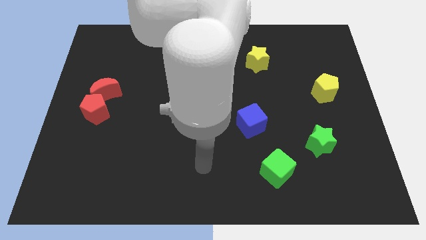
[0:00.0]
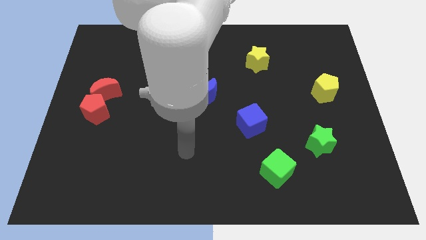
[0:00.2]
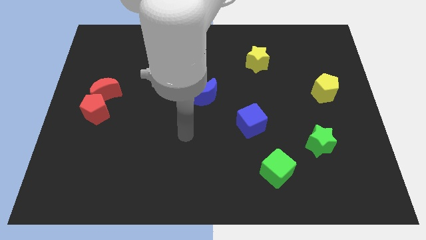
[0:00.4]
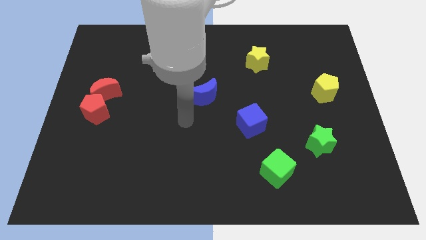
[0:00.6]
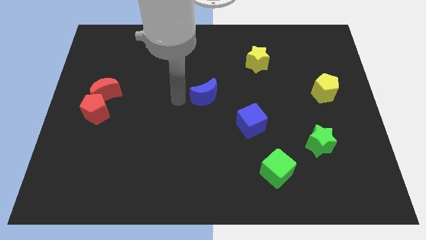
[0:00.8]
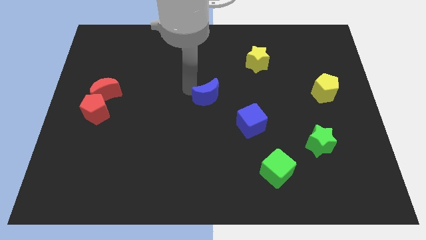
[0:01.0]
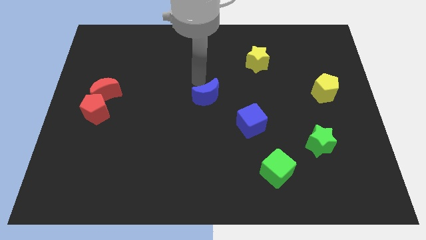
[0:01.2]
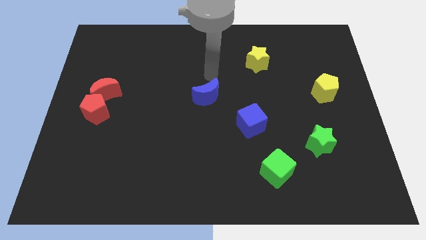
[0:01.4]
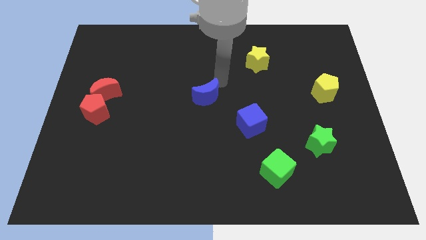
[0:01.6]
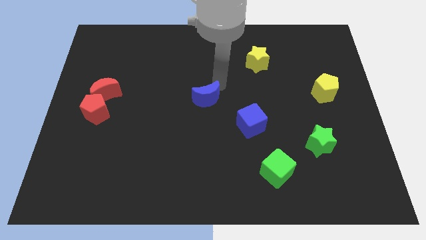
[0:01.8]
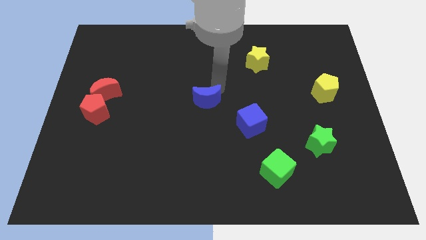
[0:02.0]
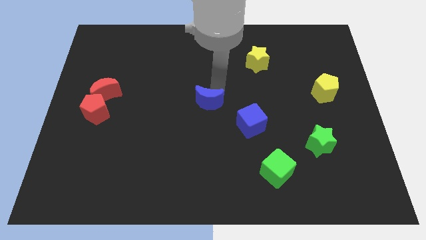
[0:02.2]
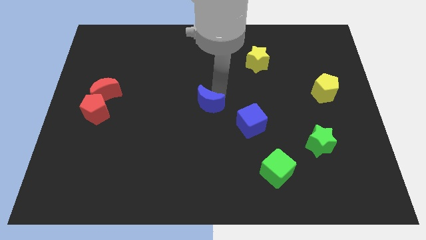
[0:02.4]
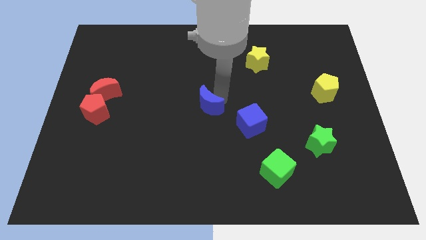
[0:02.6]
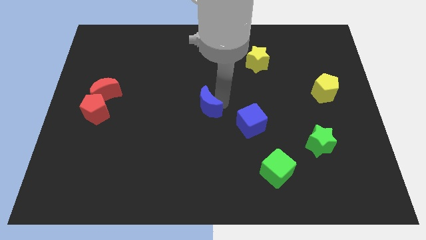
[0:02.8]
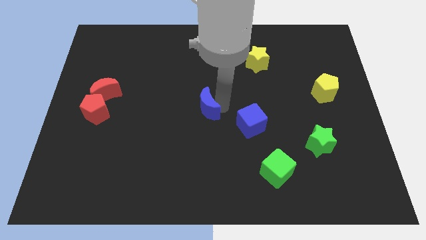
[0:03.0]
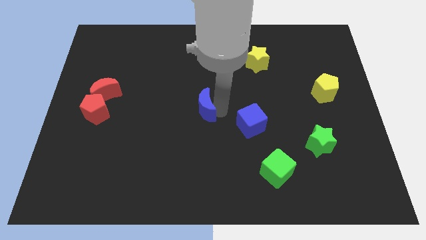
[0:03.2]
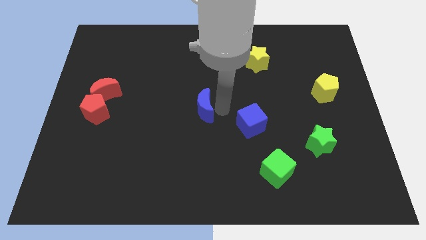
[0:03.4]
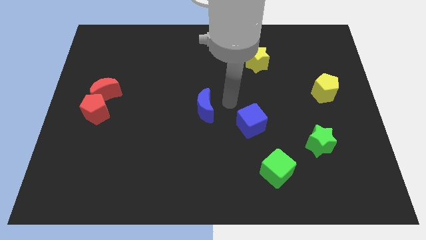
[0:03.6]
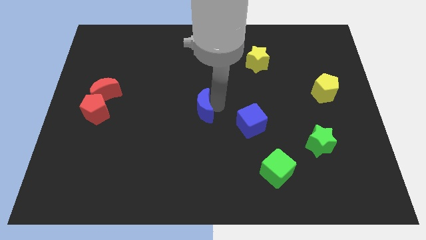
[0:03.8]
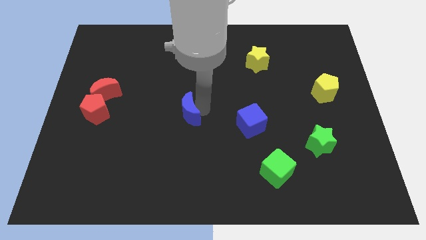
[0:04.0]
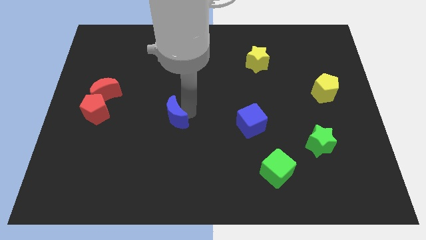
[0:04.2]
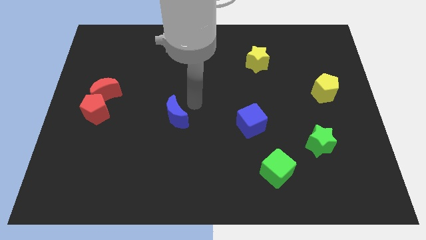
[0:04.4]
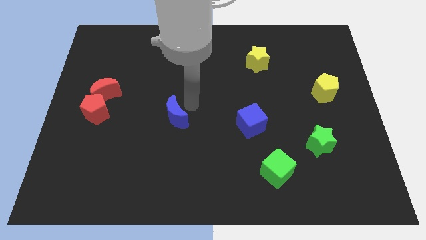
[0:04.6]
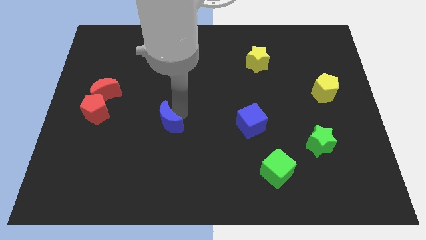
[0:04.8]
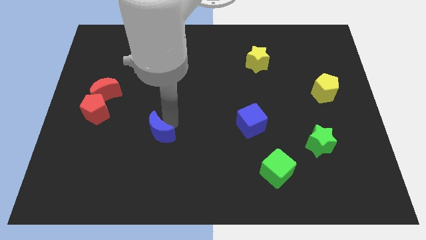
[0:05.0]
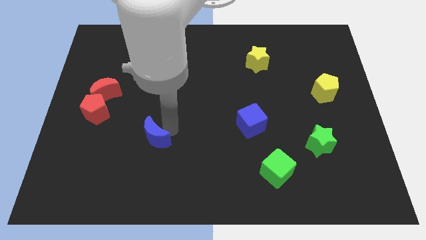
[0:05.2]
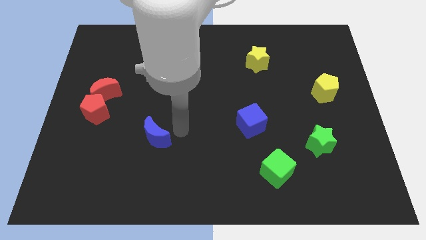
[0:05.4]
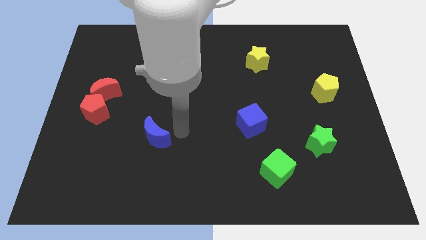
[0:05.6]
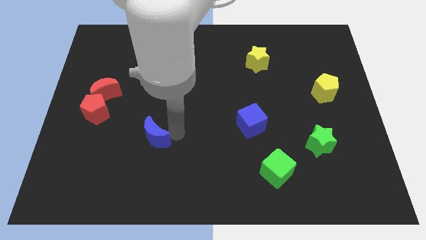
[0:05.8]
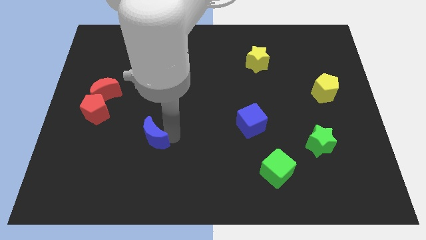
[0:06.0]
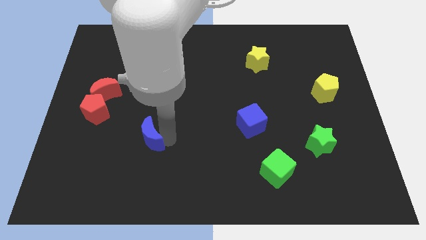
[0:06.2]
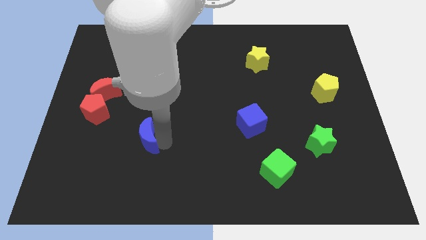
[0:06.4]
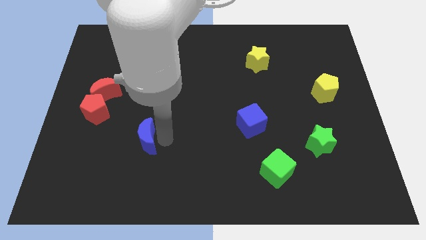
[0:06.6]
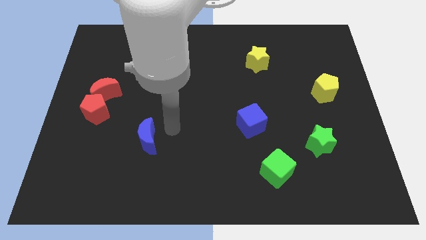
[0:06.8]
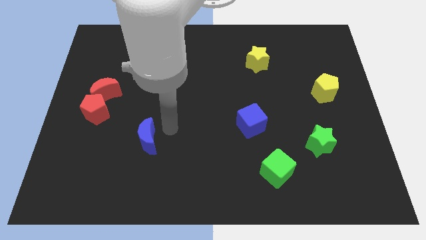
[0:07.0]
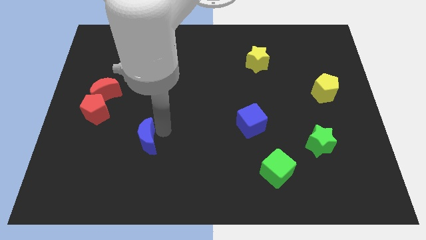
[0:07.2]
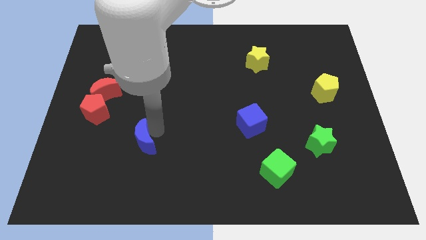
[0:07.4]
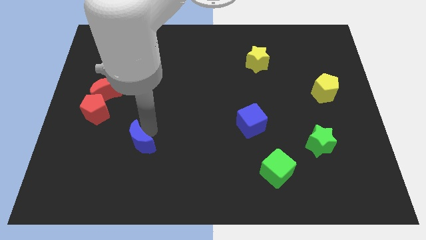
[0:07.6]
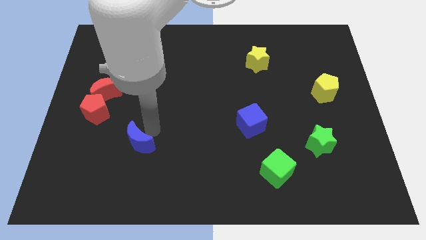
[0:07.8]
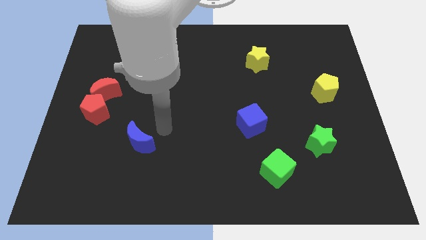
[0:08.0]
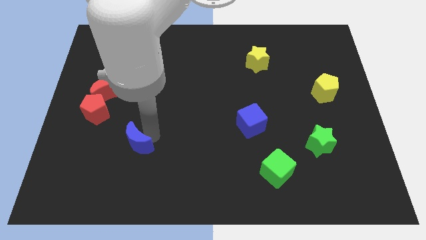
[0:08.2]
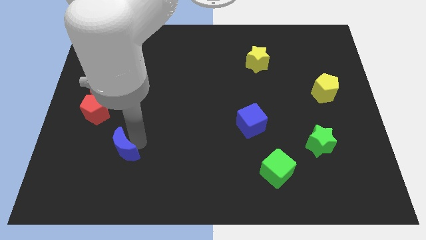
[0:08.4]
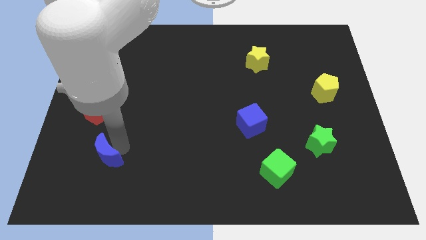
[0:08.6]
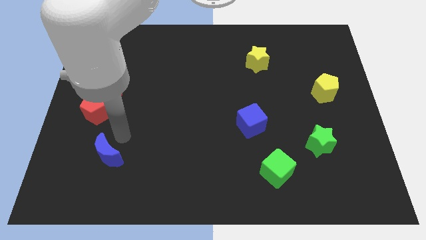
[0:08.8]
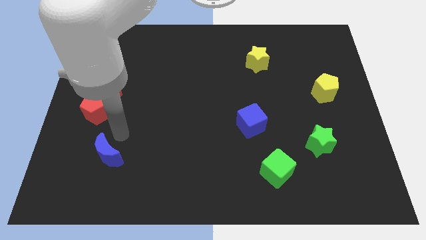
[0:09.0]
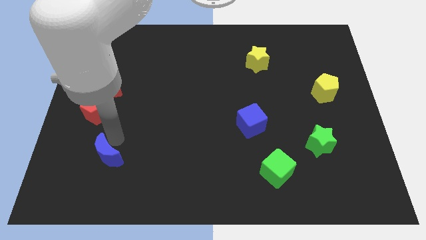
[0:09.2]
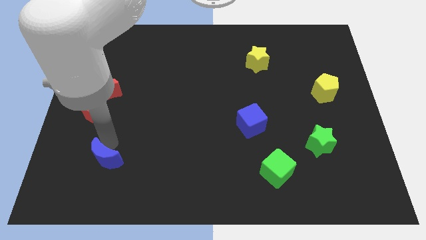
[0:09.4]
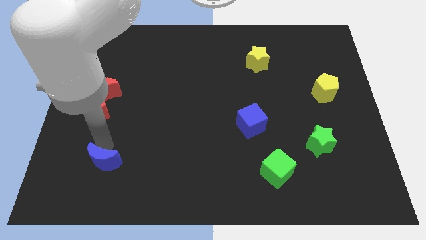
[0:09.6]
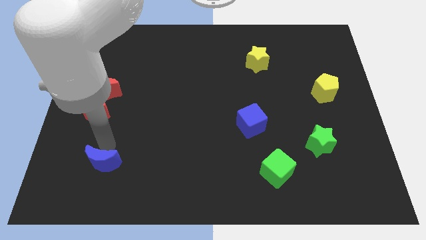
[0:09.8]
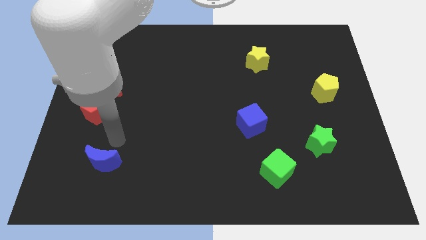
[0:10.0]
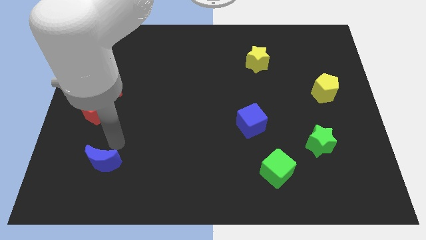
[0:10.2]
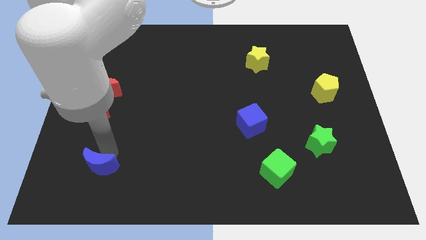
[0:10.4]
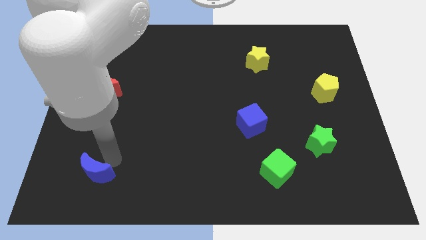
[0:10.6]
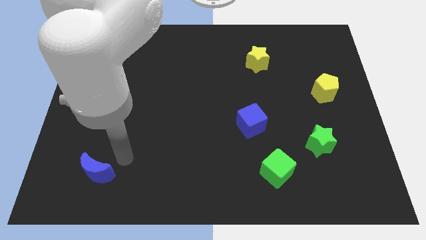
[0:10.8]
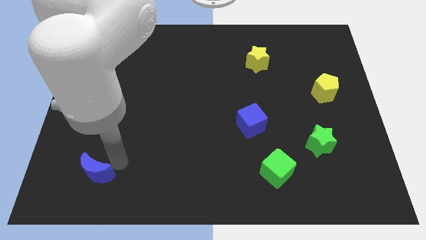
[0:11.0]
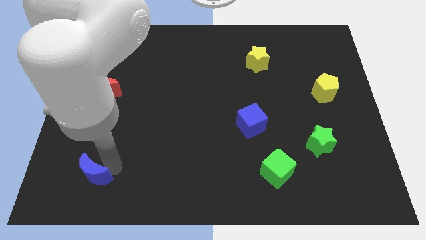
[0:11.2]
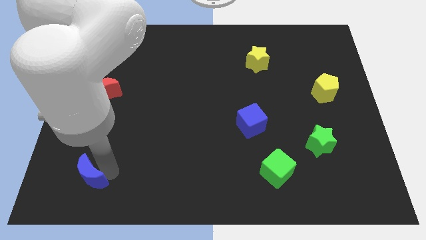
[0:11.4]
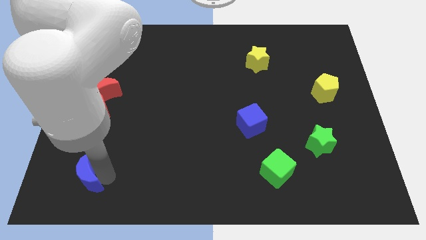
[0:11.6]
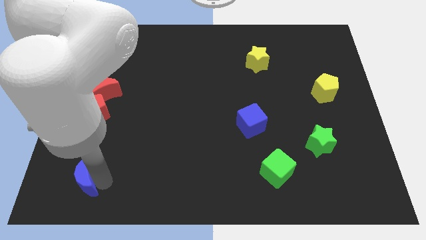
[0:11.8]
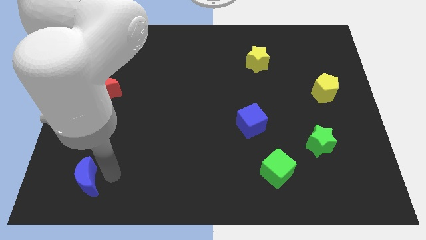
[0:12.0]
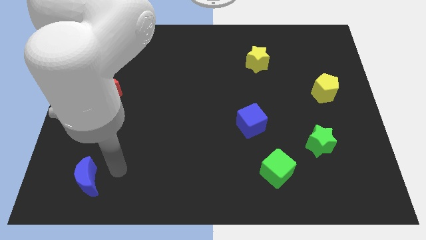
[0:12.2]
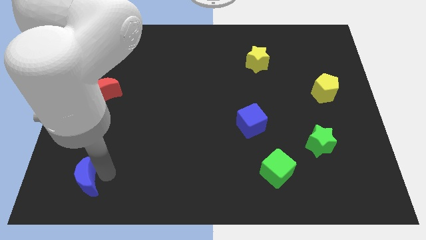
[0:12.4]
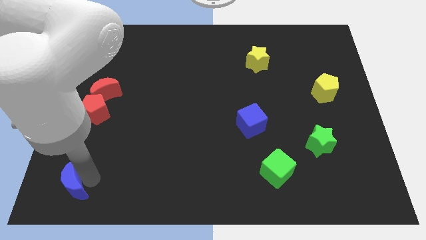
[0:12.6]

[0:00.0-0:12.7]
put the blue moon to the bottom left
